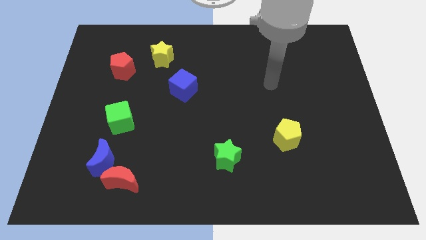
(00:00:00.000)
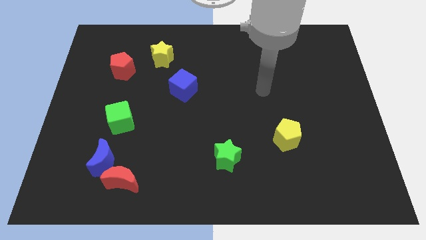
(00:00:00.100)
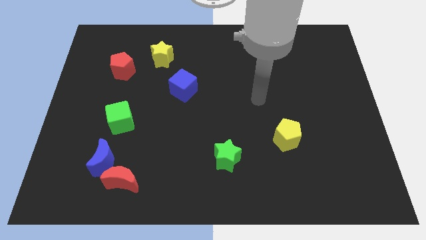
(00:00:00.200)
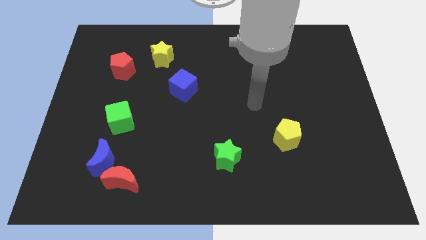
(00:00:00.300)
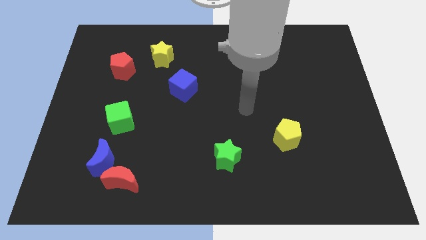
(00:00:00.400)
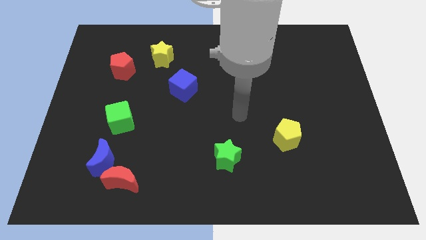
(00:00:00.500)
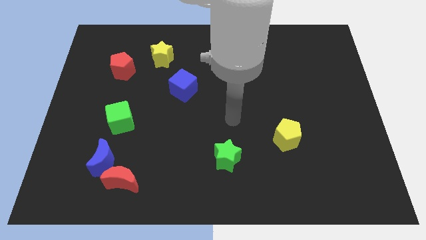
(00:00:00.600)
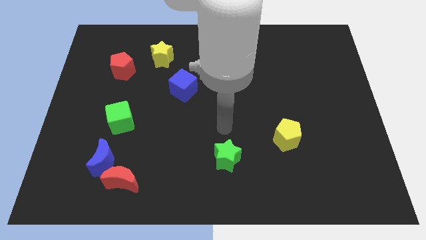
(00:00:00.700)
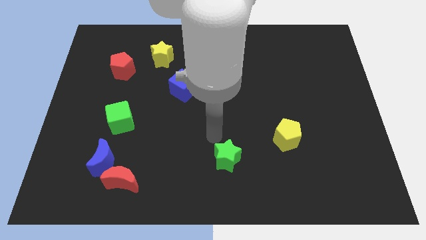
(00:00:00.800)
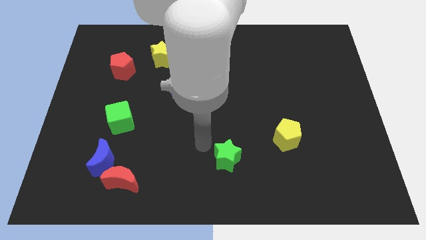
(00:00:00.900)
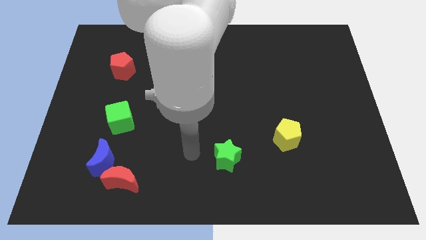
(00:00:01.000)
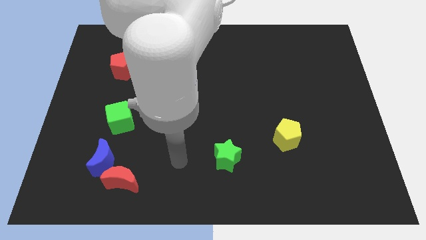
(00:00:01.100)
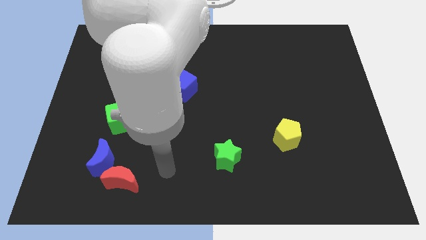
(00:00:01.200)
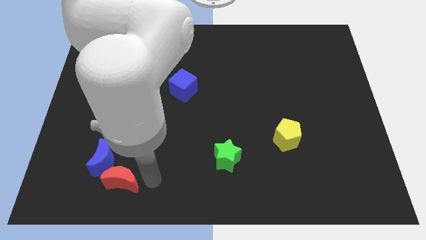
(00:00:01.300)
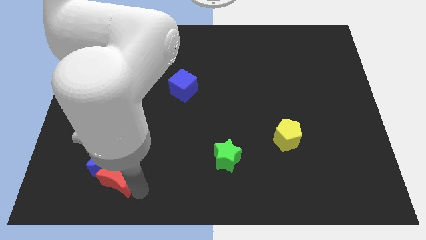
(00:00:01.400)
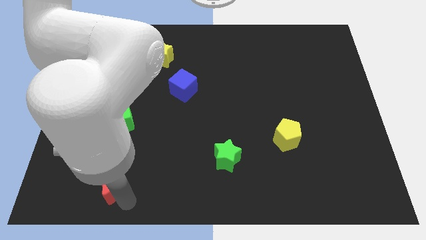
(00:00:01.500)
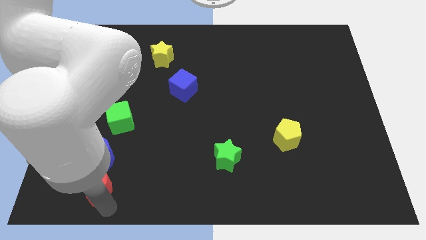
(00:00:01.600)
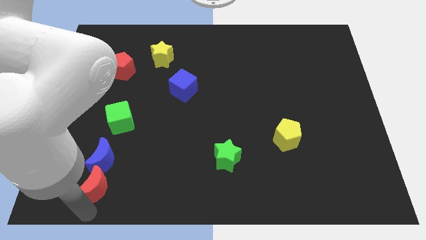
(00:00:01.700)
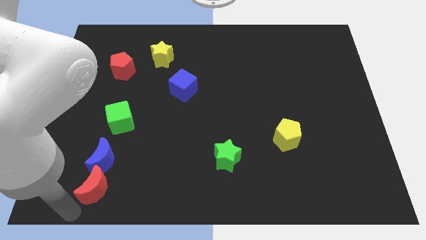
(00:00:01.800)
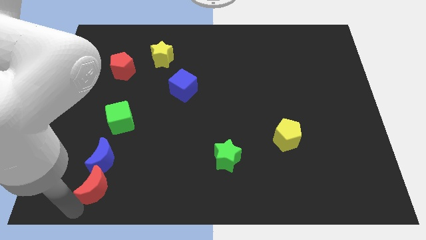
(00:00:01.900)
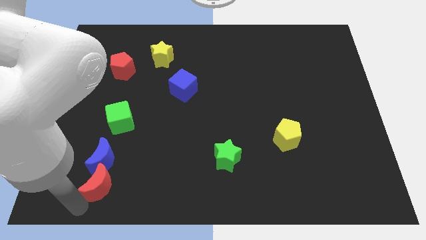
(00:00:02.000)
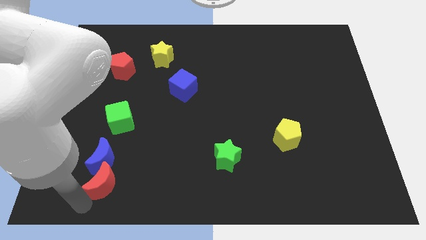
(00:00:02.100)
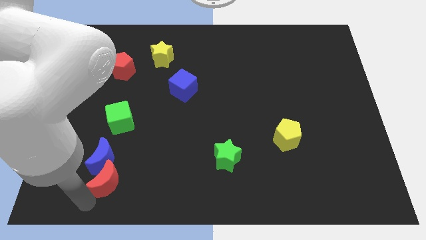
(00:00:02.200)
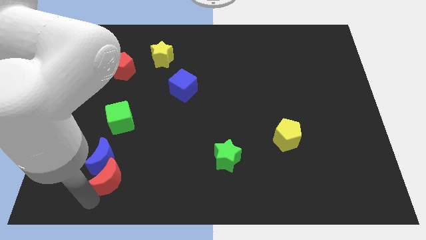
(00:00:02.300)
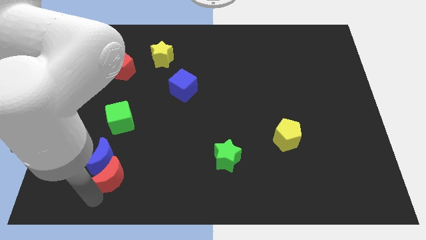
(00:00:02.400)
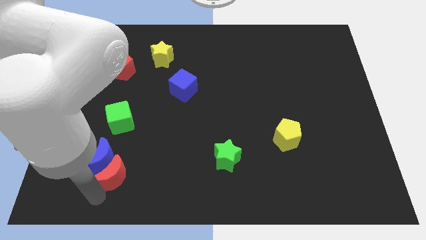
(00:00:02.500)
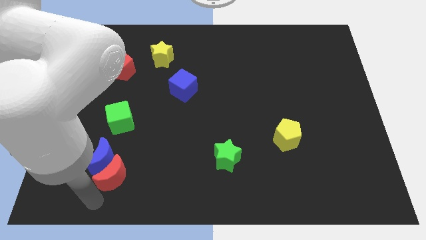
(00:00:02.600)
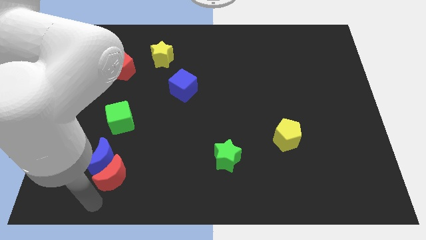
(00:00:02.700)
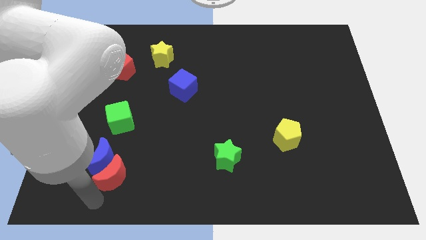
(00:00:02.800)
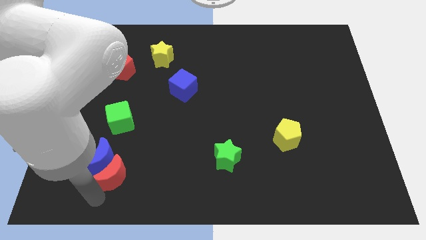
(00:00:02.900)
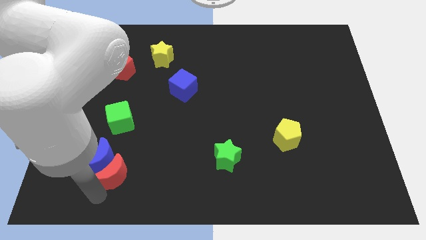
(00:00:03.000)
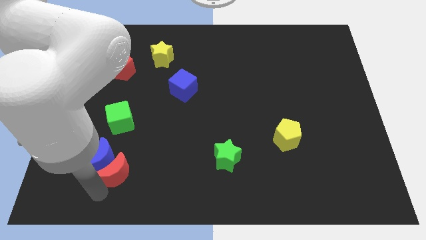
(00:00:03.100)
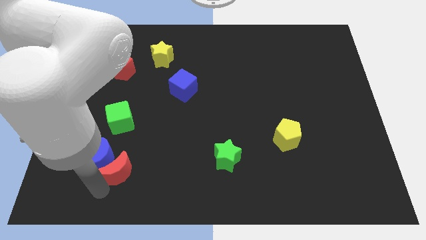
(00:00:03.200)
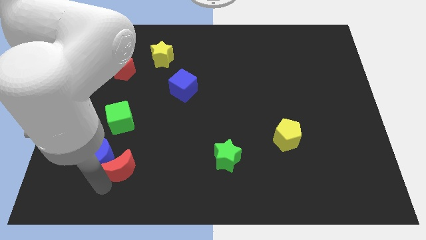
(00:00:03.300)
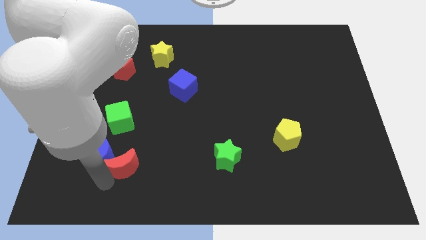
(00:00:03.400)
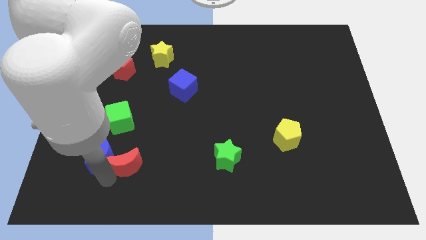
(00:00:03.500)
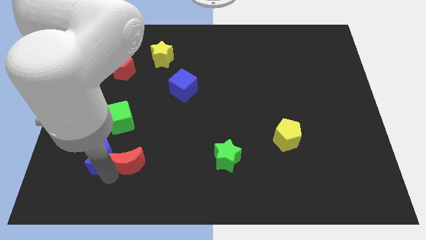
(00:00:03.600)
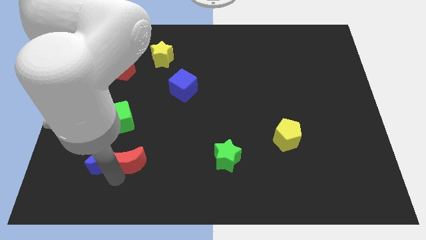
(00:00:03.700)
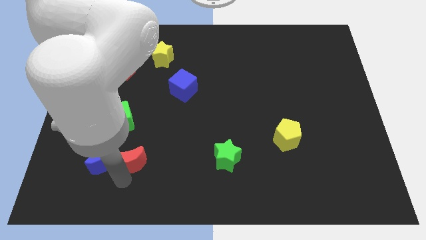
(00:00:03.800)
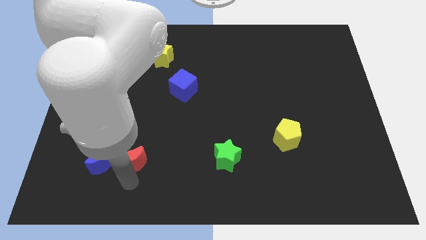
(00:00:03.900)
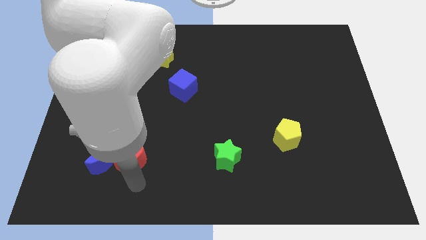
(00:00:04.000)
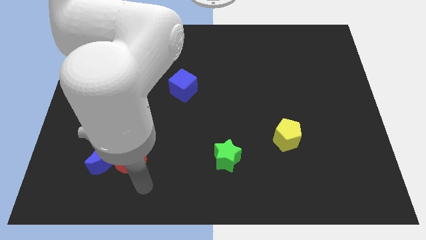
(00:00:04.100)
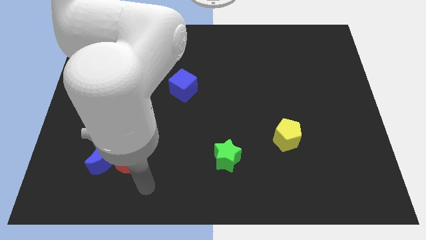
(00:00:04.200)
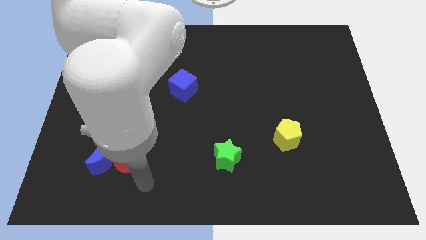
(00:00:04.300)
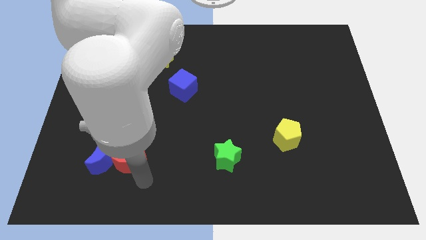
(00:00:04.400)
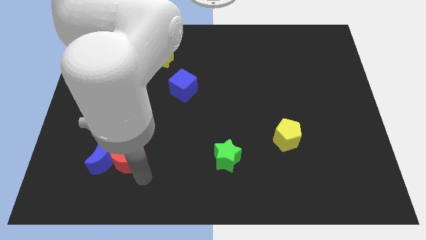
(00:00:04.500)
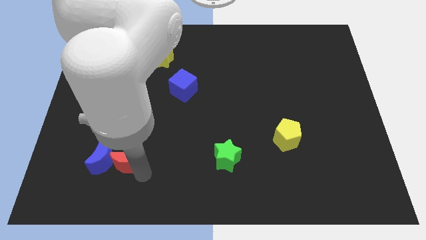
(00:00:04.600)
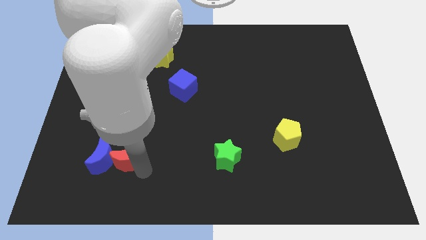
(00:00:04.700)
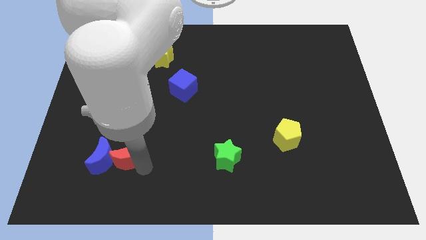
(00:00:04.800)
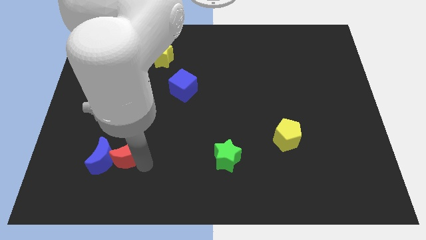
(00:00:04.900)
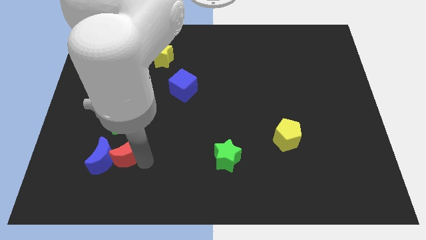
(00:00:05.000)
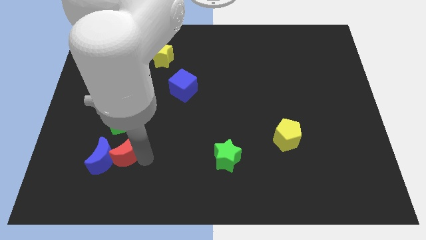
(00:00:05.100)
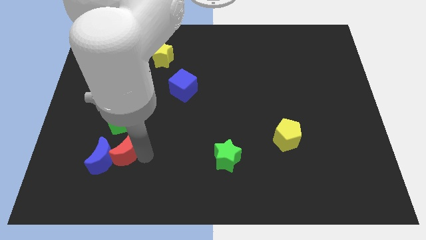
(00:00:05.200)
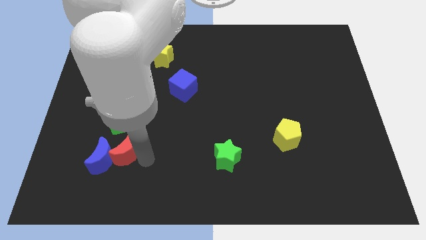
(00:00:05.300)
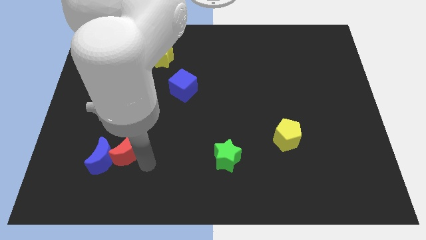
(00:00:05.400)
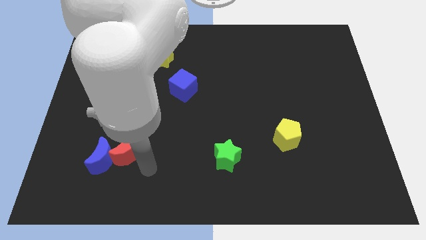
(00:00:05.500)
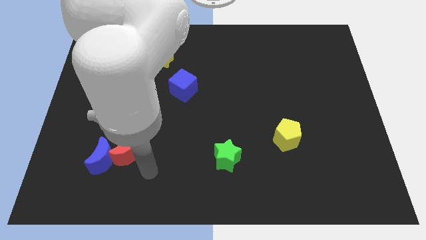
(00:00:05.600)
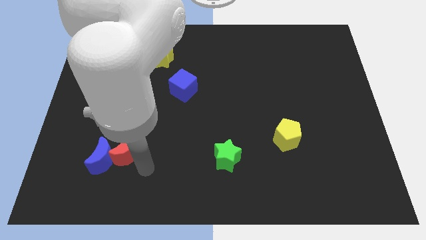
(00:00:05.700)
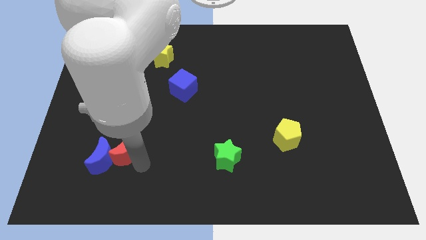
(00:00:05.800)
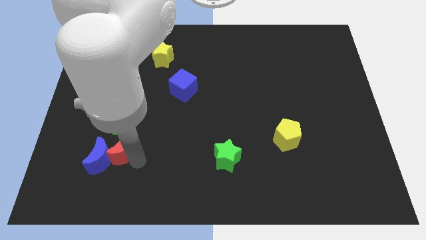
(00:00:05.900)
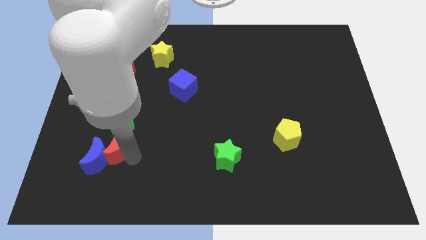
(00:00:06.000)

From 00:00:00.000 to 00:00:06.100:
put the red moon to the top side of the blue moon

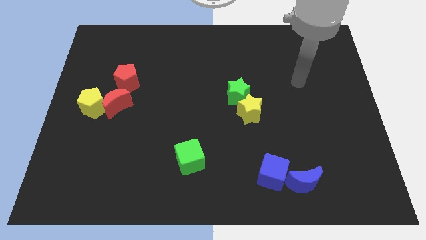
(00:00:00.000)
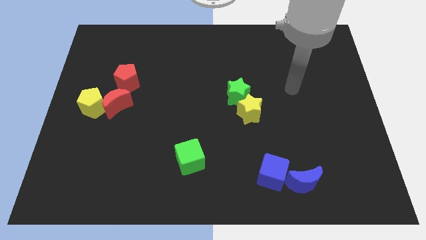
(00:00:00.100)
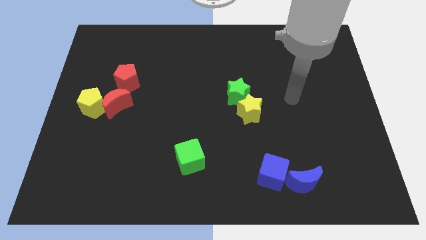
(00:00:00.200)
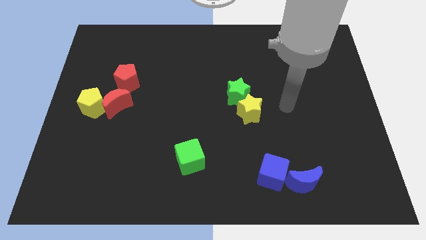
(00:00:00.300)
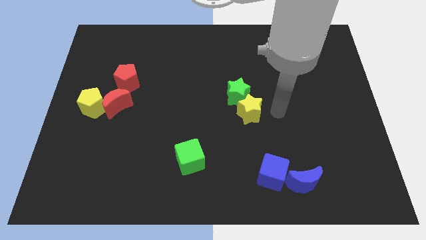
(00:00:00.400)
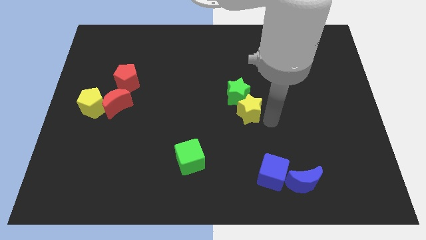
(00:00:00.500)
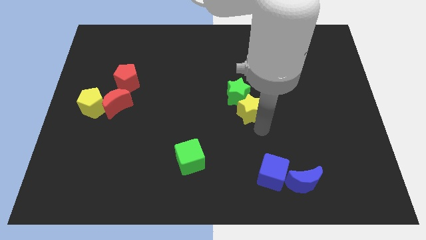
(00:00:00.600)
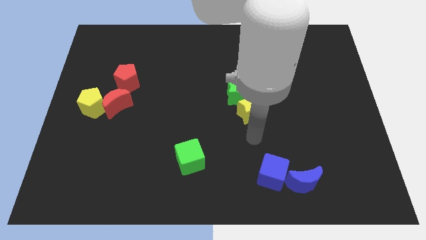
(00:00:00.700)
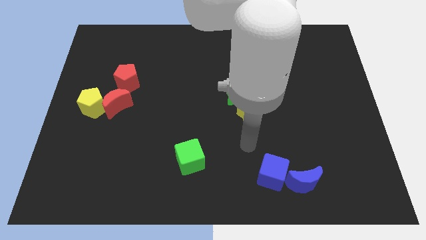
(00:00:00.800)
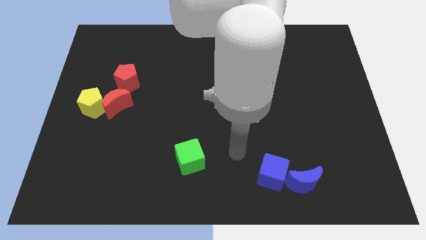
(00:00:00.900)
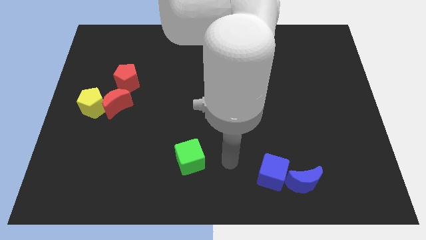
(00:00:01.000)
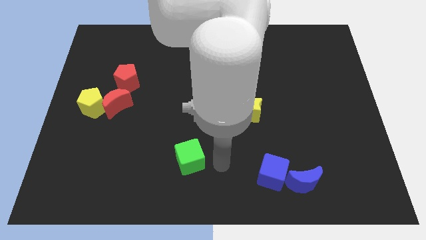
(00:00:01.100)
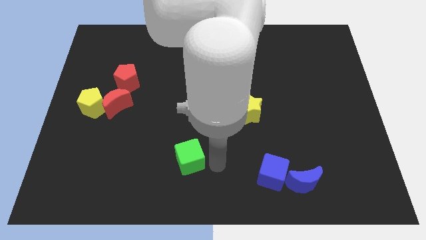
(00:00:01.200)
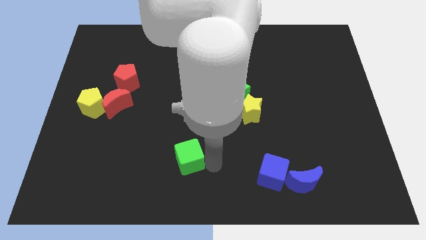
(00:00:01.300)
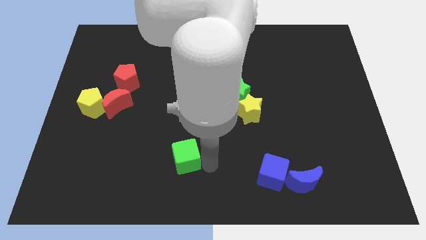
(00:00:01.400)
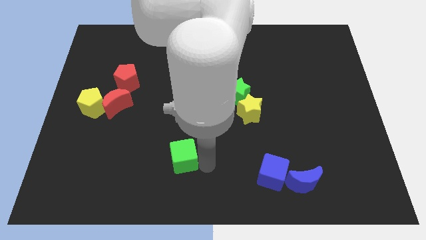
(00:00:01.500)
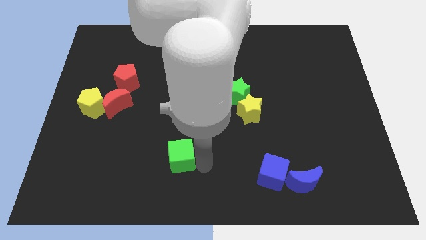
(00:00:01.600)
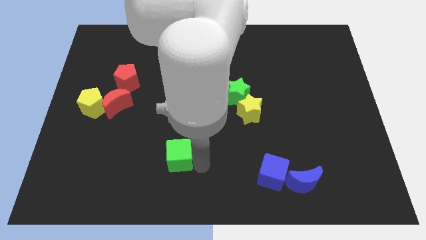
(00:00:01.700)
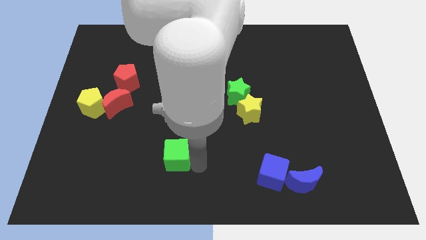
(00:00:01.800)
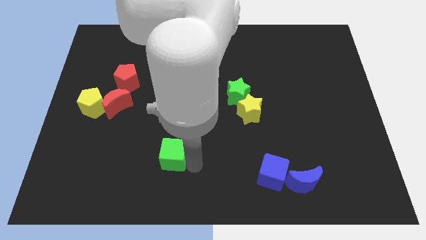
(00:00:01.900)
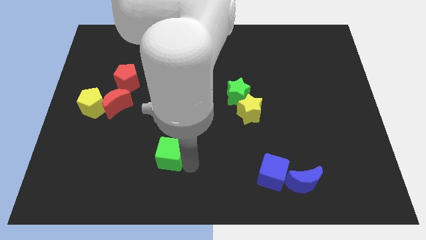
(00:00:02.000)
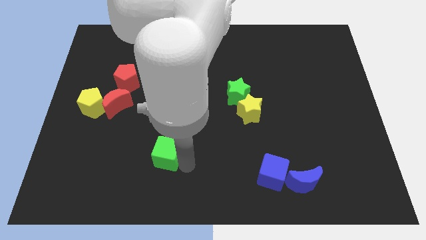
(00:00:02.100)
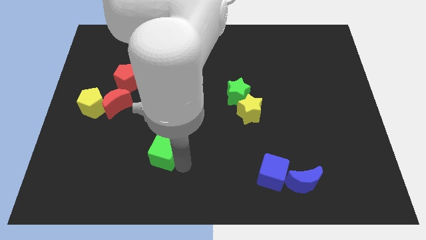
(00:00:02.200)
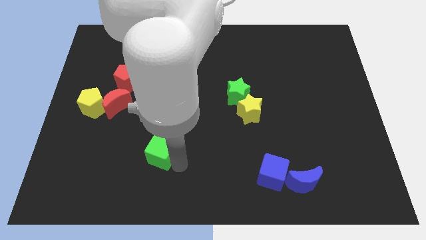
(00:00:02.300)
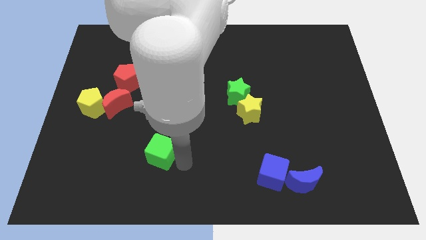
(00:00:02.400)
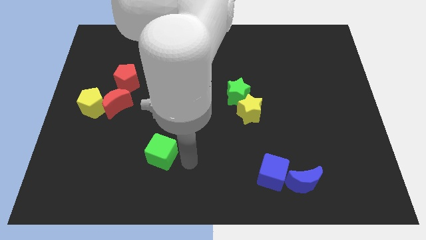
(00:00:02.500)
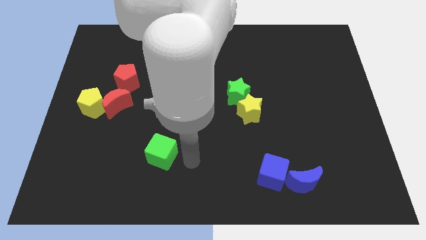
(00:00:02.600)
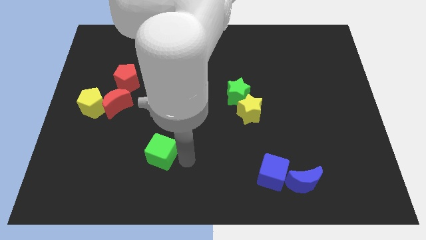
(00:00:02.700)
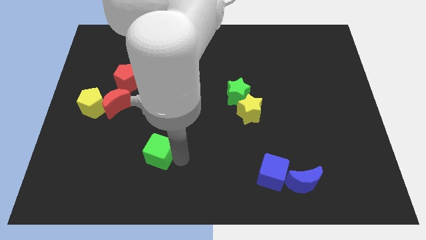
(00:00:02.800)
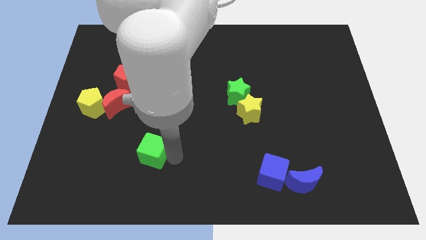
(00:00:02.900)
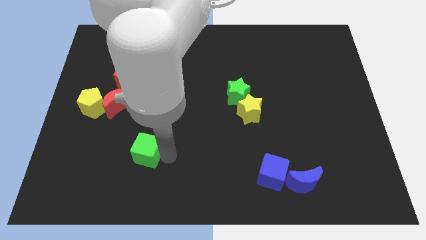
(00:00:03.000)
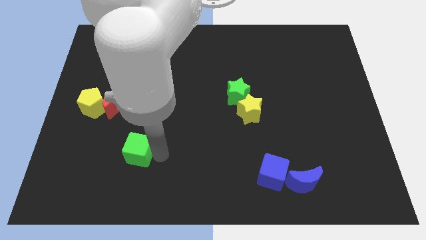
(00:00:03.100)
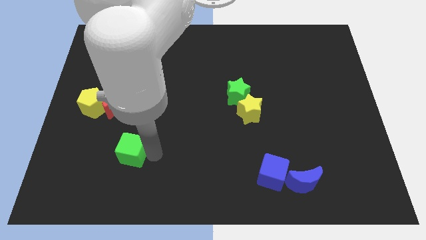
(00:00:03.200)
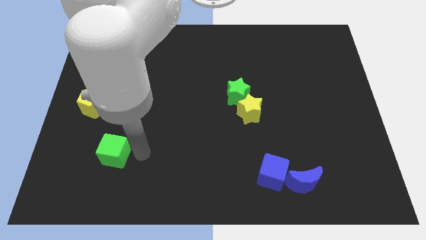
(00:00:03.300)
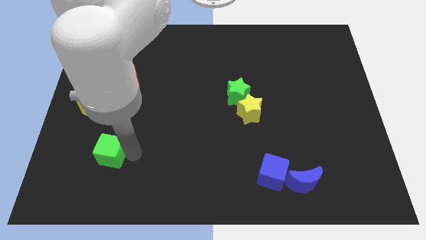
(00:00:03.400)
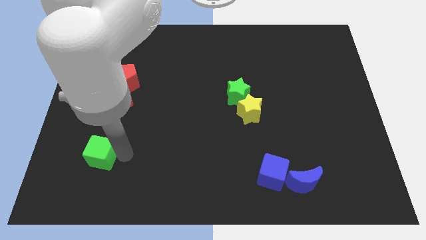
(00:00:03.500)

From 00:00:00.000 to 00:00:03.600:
slide the green cube to the bottom of the yellow pentagon
